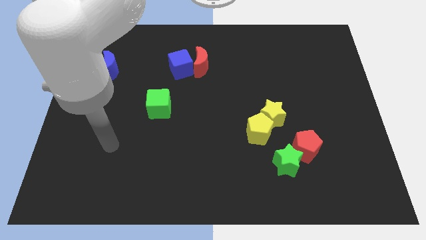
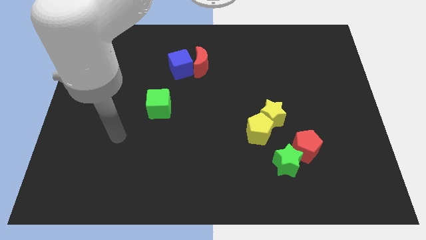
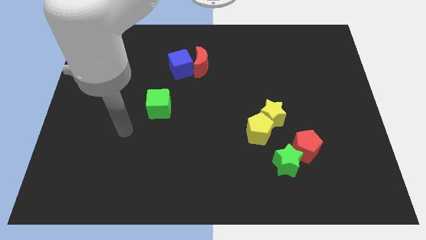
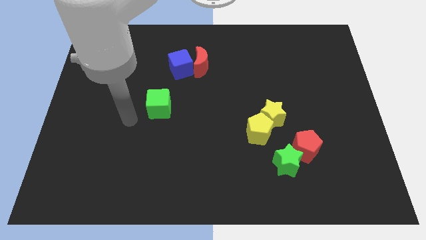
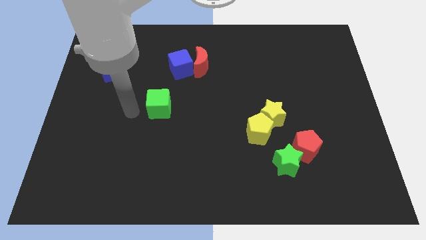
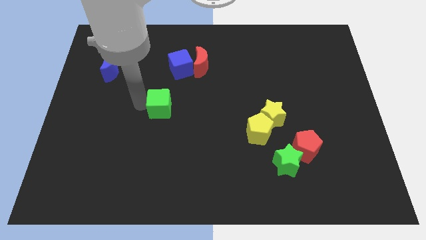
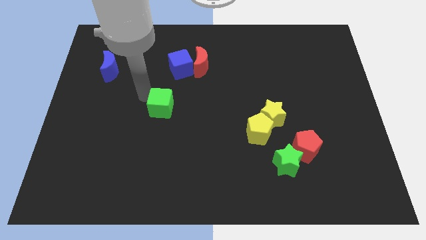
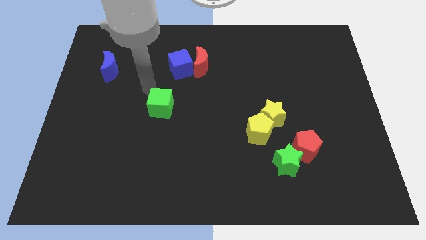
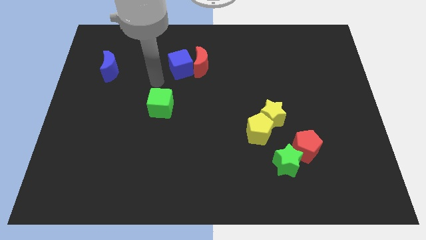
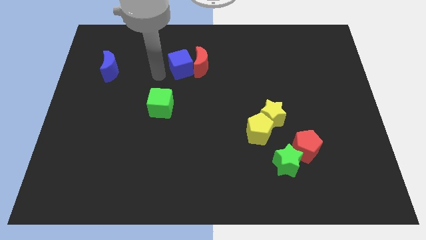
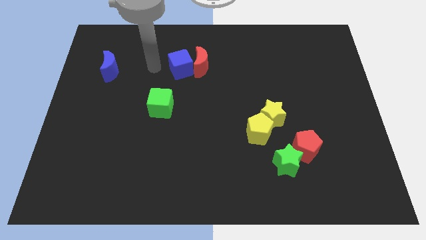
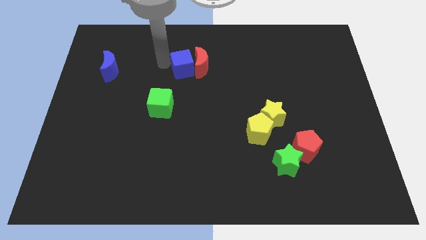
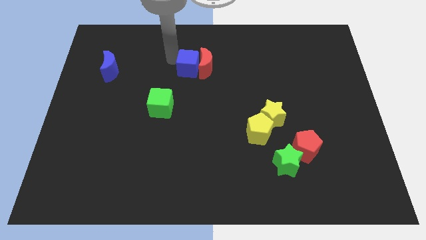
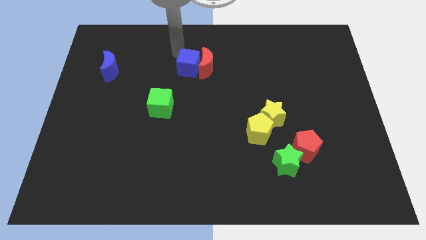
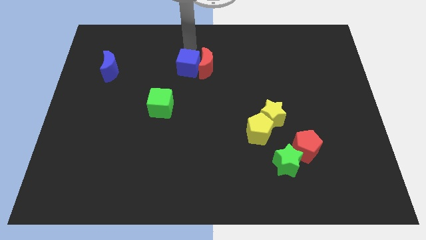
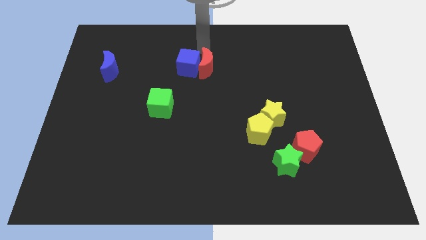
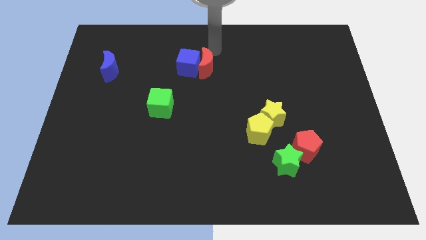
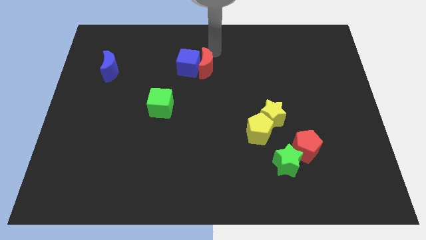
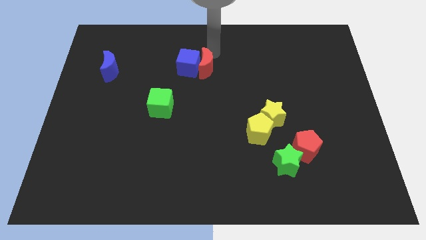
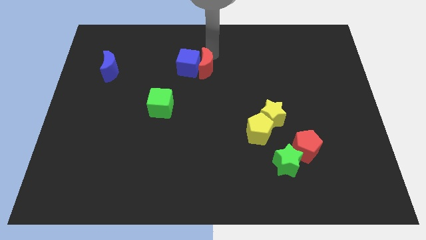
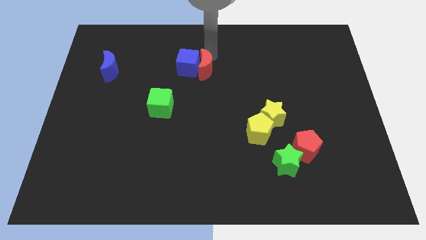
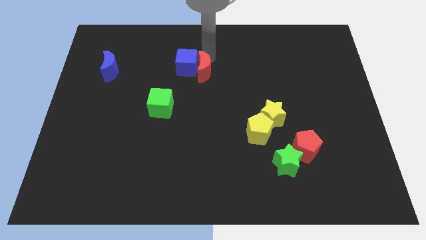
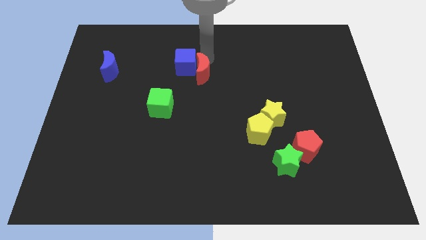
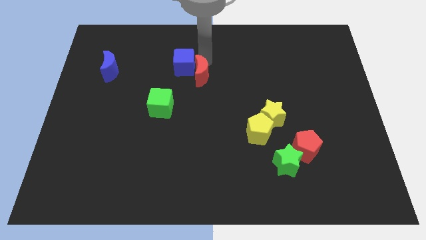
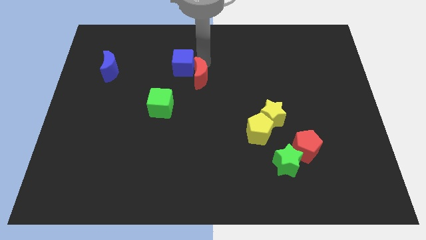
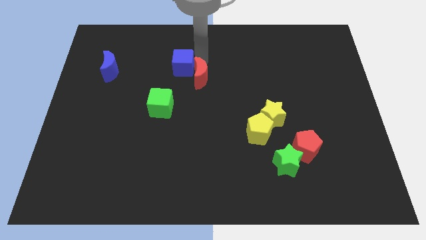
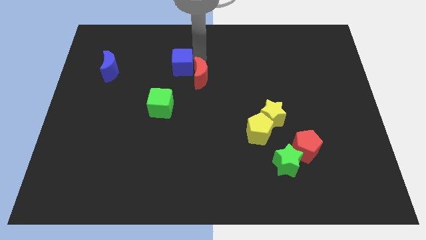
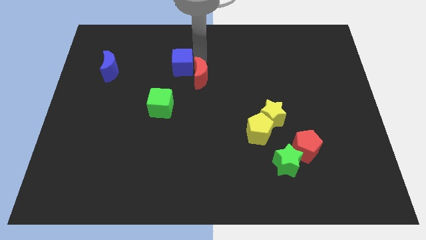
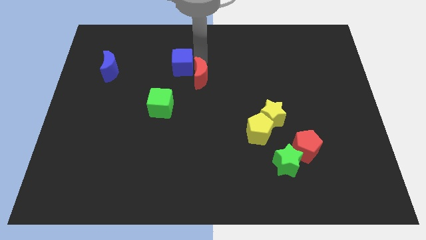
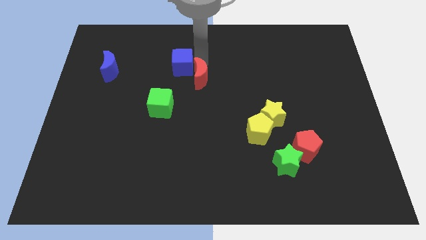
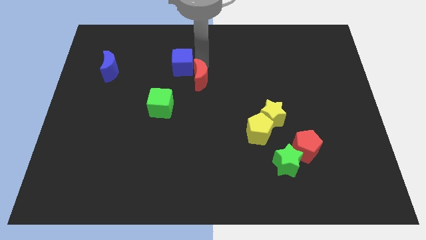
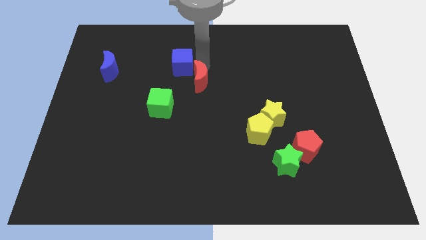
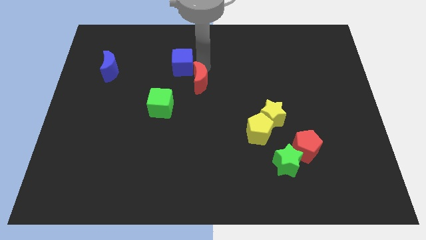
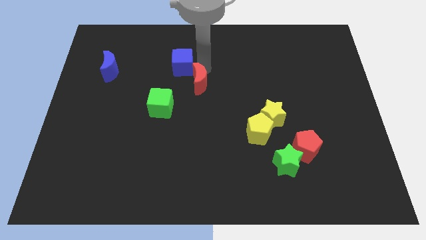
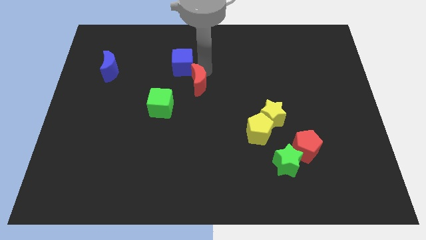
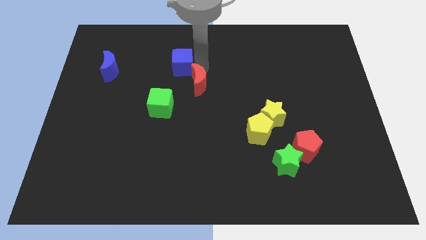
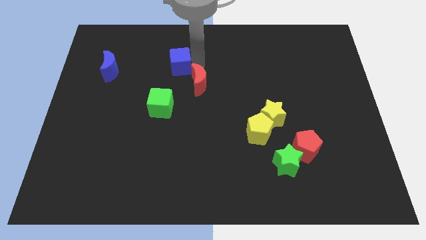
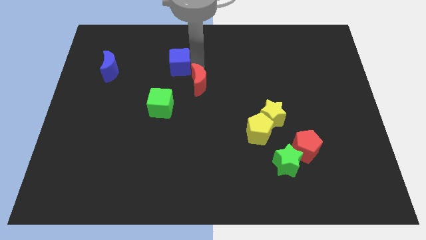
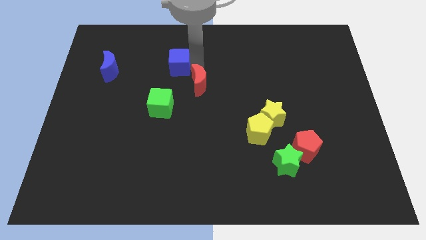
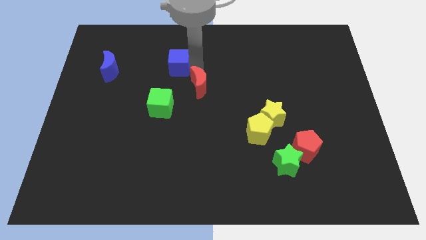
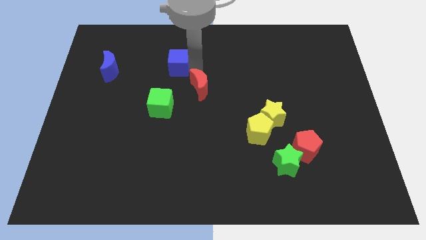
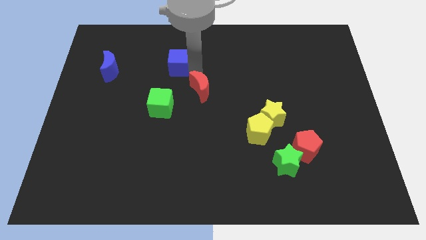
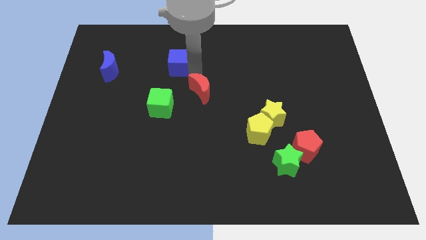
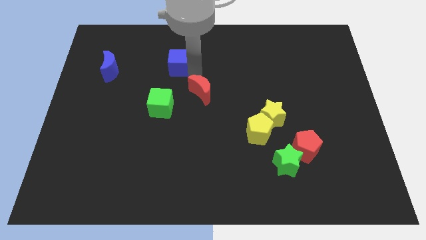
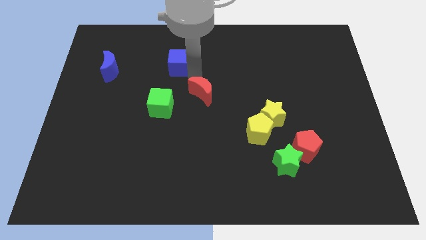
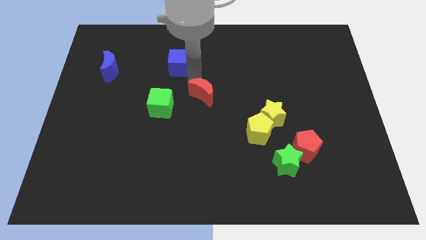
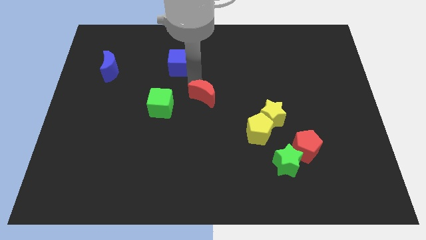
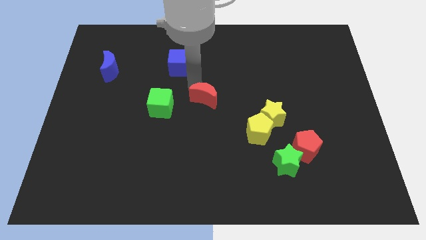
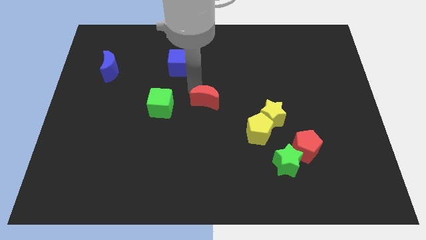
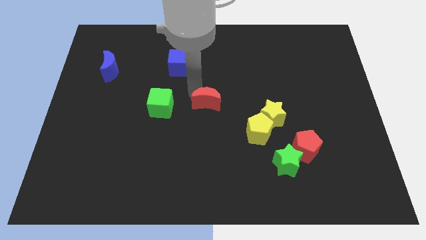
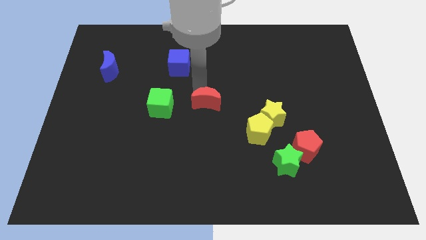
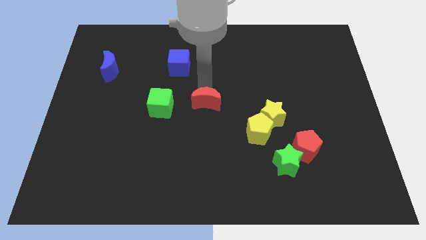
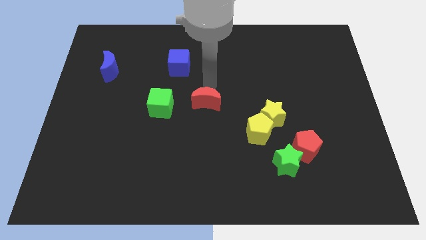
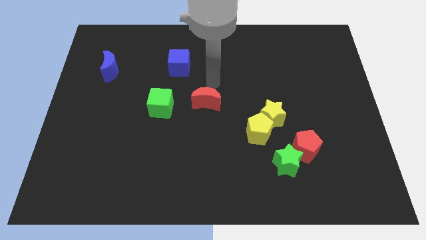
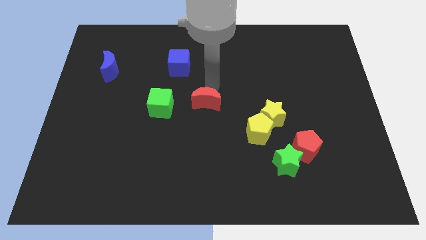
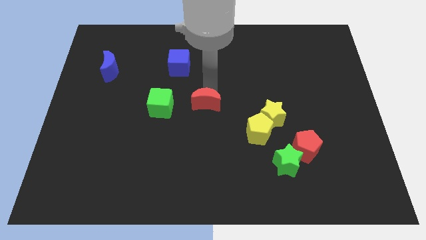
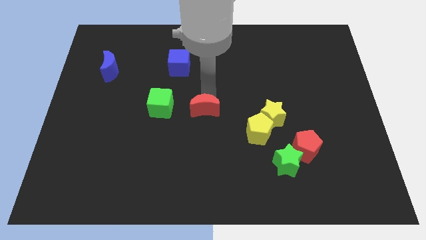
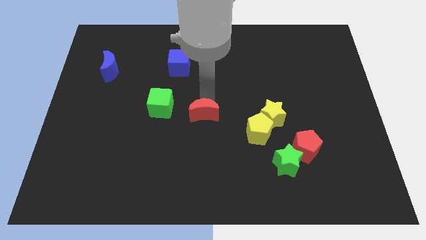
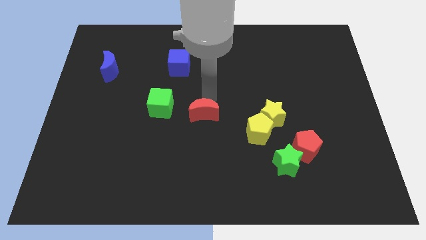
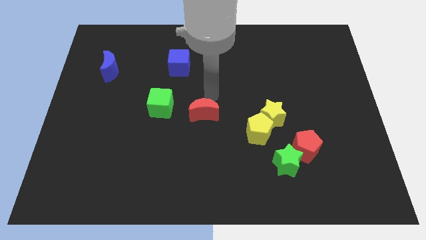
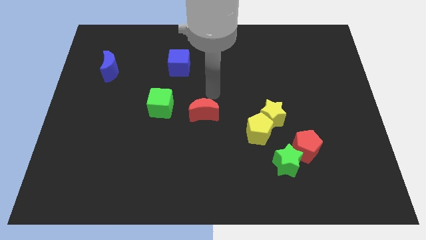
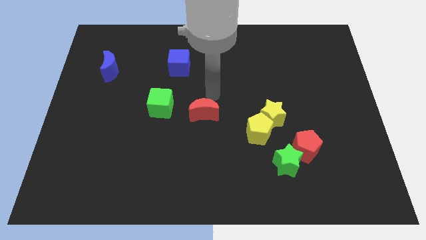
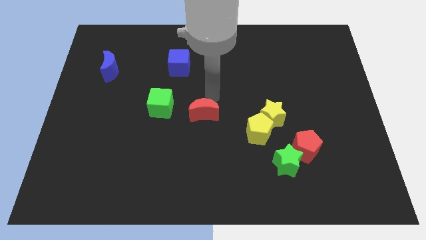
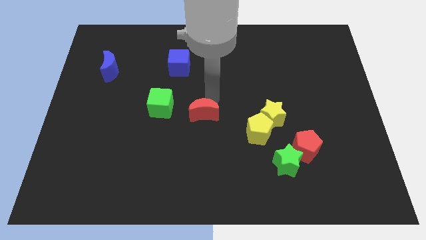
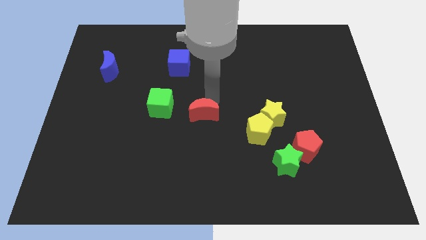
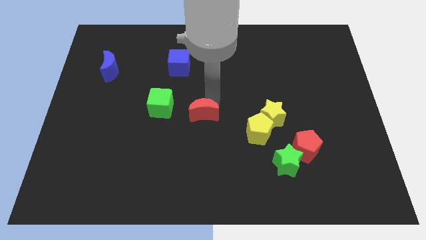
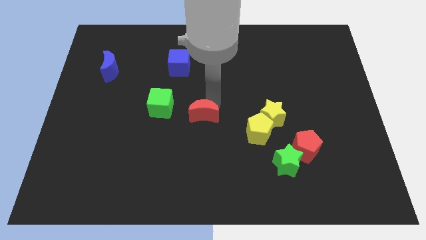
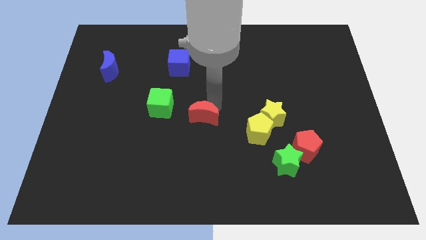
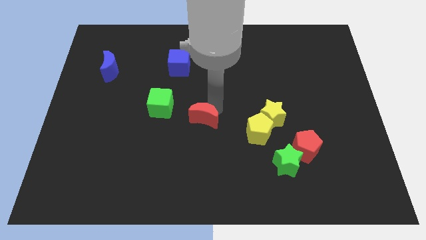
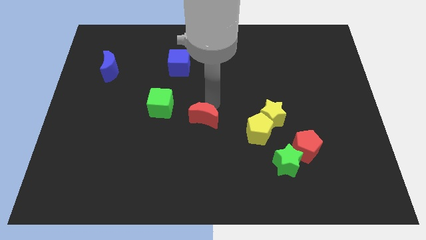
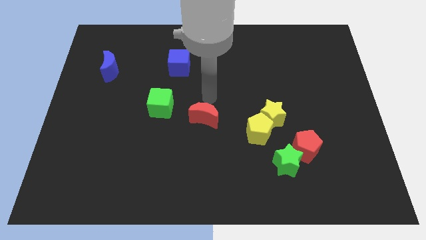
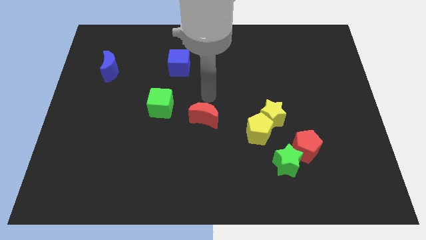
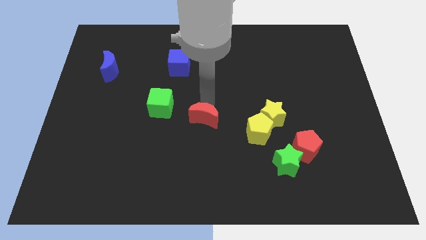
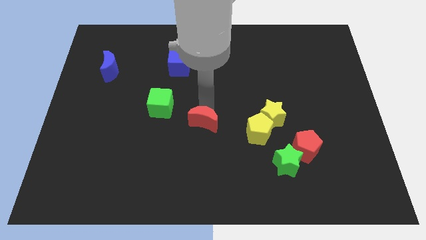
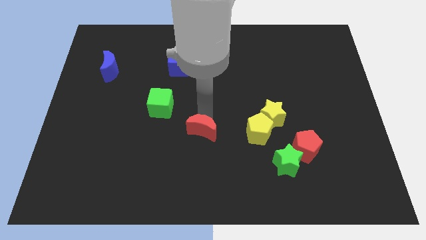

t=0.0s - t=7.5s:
push the red moon downwards

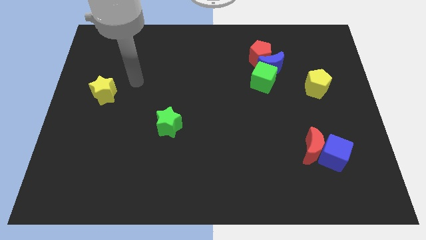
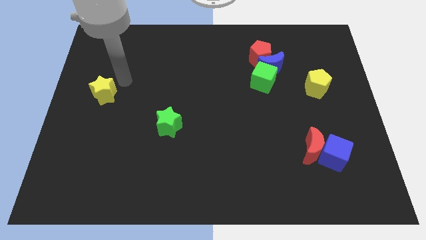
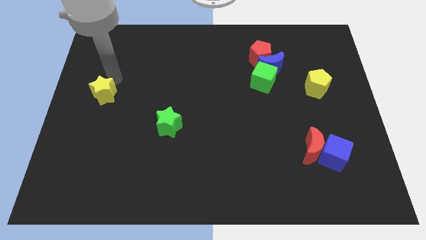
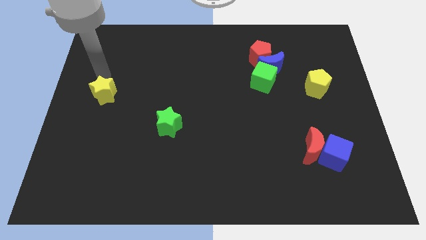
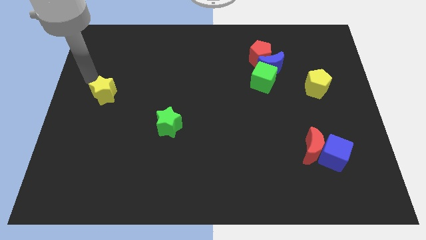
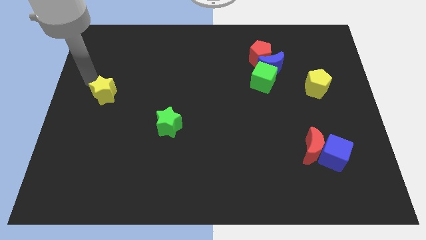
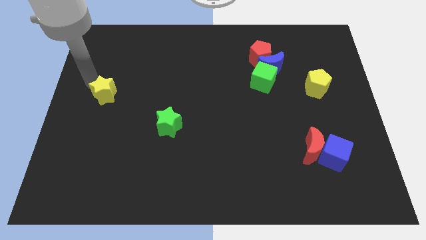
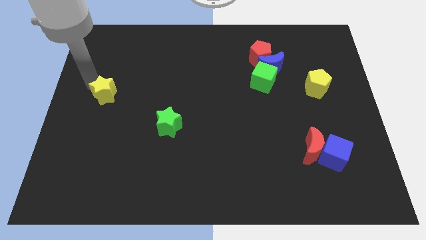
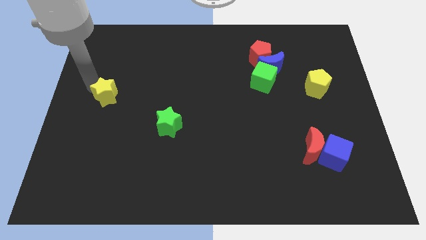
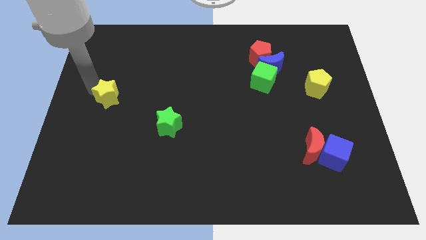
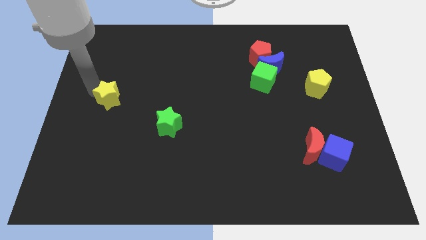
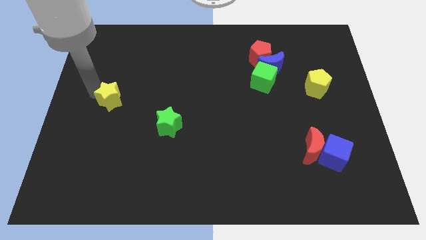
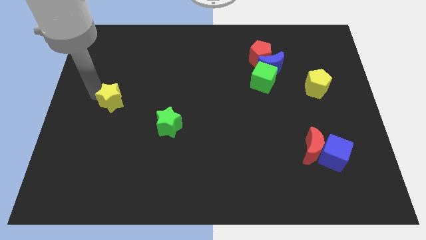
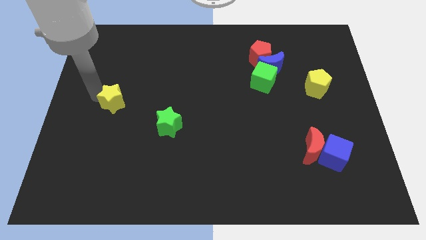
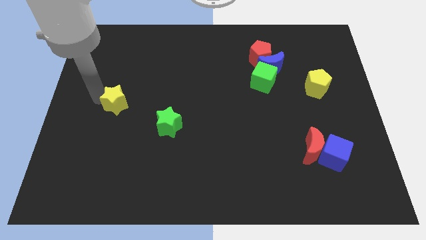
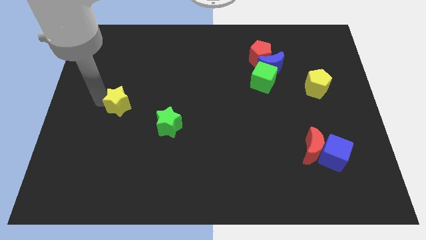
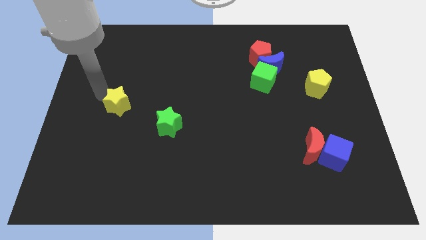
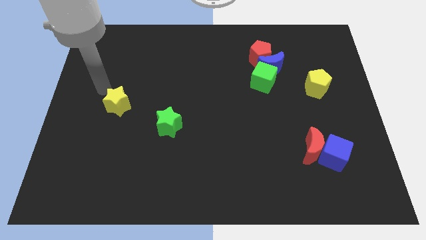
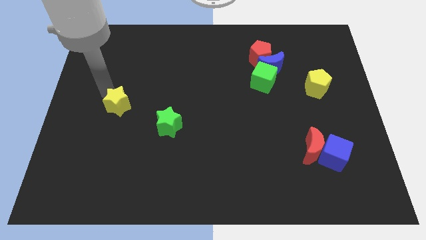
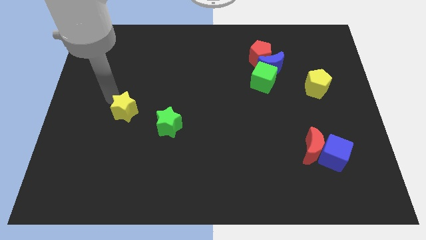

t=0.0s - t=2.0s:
push the yellow star downwards and then right a bit
